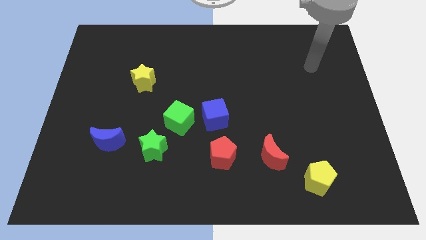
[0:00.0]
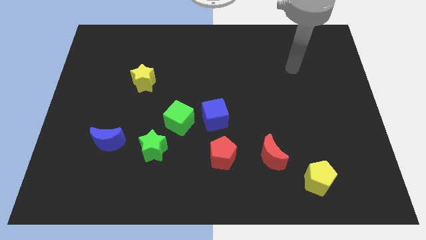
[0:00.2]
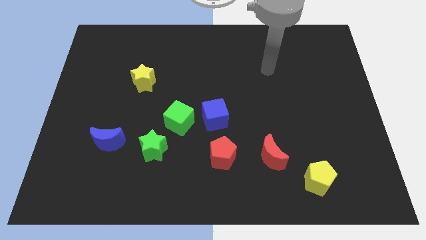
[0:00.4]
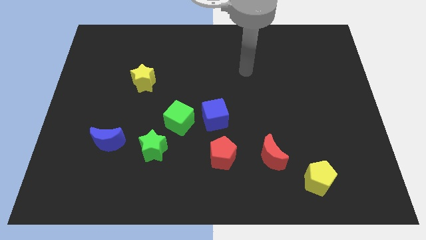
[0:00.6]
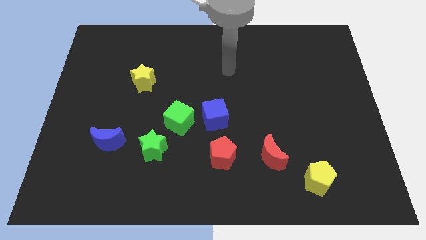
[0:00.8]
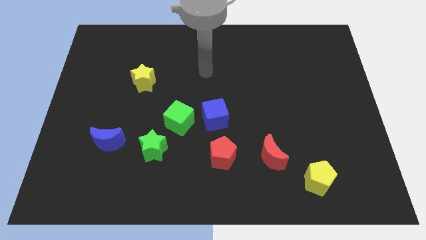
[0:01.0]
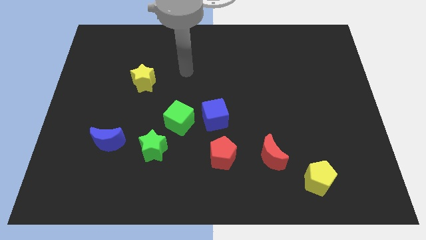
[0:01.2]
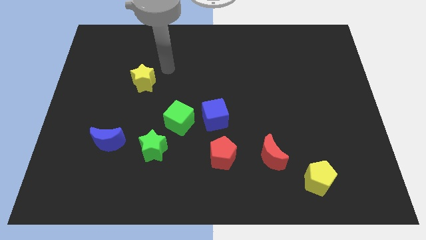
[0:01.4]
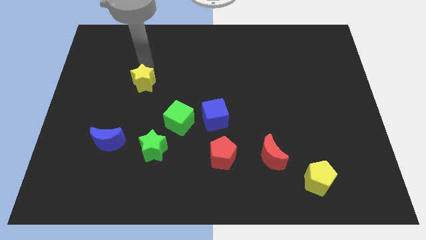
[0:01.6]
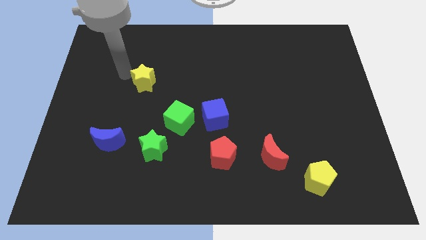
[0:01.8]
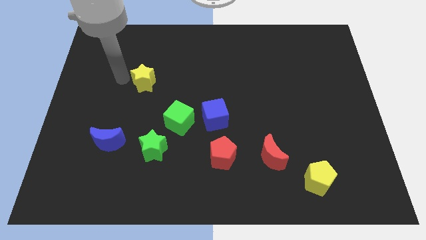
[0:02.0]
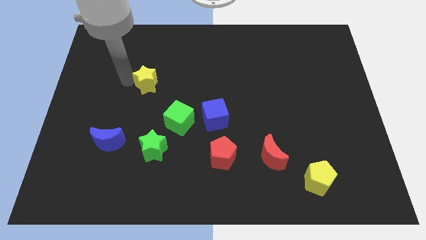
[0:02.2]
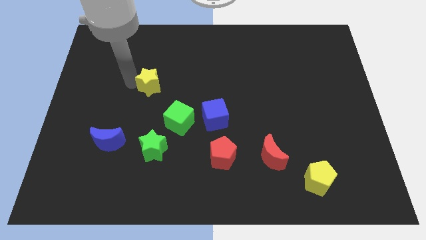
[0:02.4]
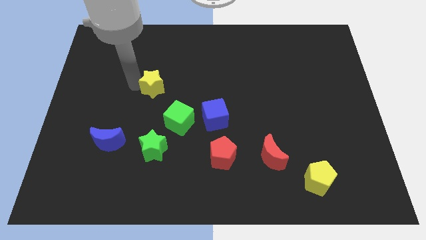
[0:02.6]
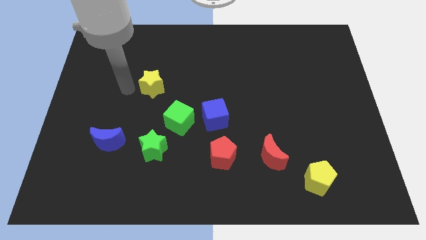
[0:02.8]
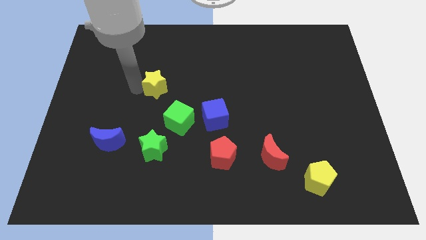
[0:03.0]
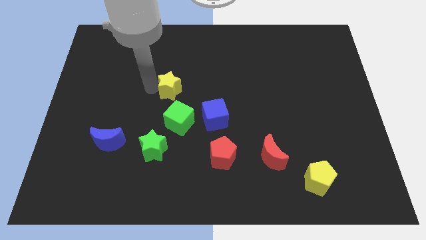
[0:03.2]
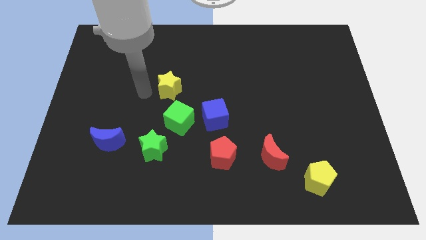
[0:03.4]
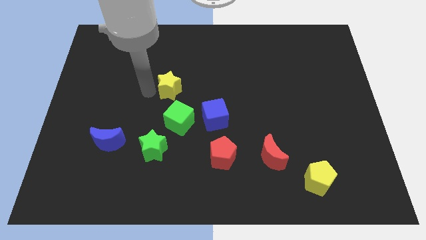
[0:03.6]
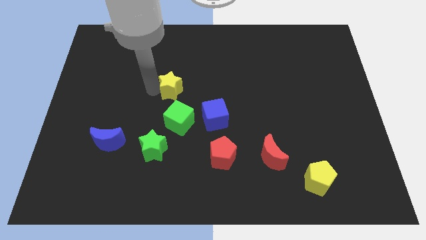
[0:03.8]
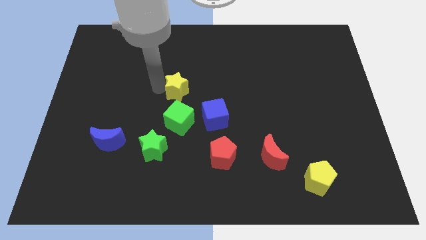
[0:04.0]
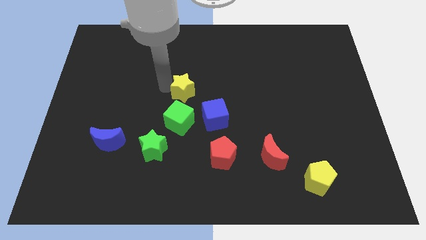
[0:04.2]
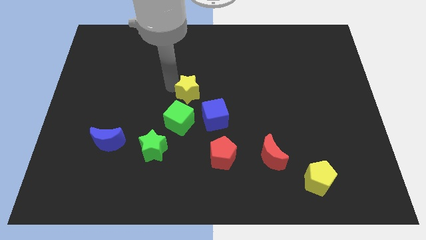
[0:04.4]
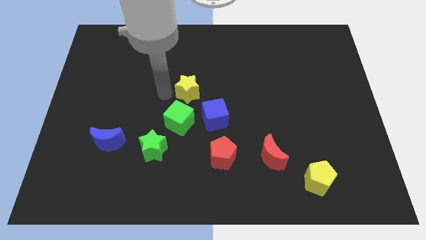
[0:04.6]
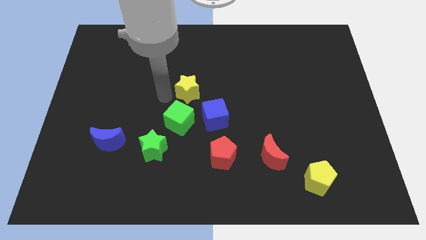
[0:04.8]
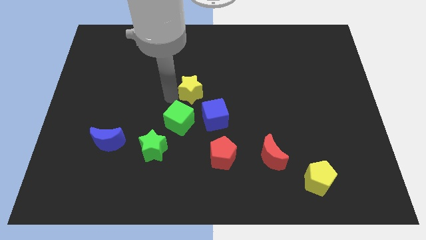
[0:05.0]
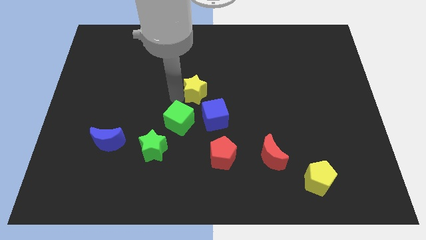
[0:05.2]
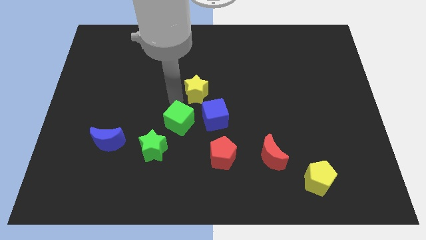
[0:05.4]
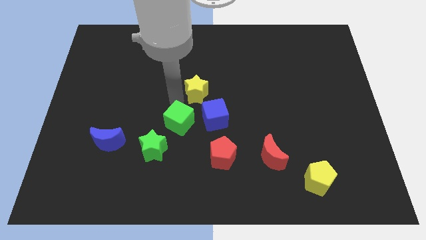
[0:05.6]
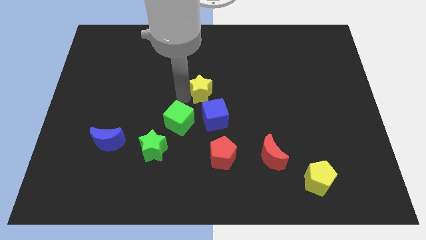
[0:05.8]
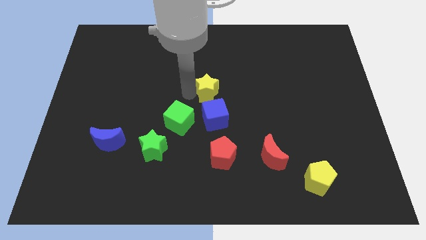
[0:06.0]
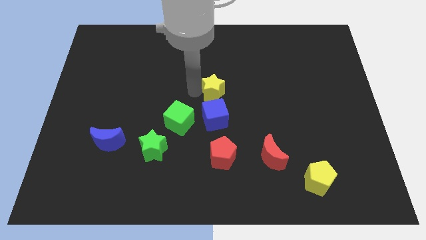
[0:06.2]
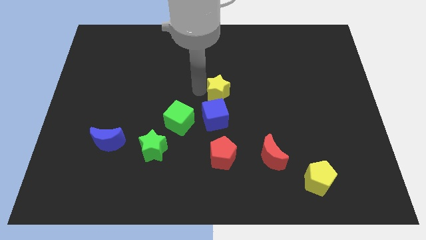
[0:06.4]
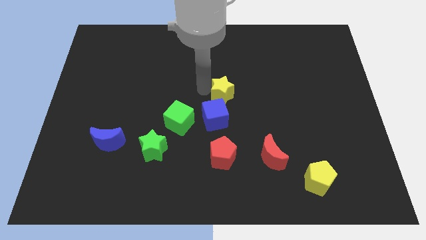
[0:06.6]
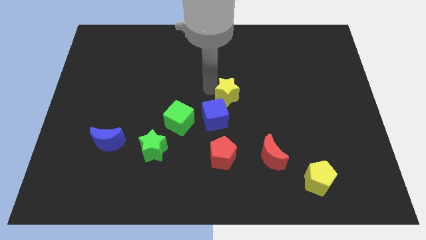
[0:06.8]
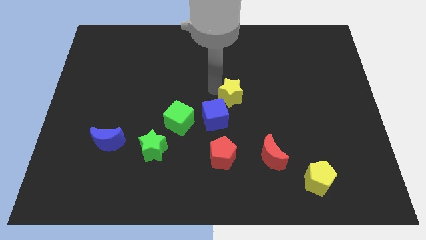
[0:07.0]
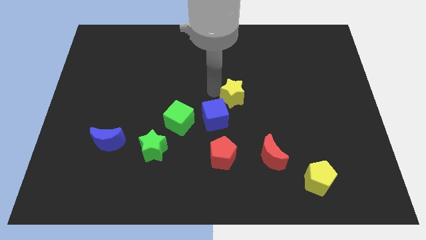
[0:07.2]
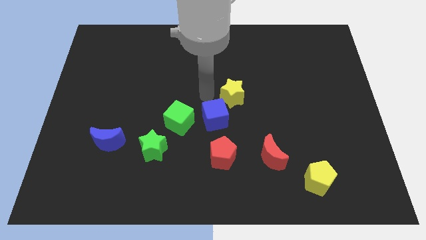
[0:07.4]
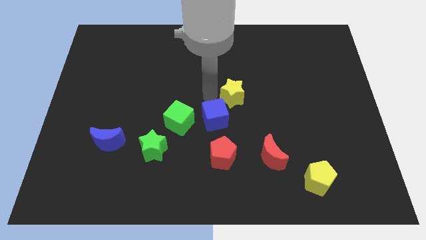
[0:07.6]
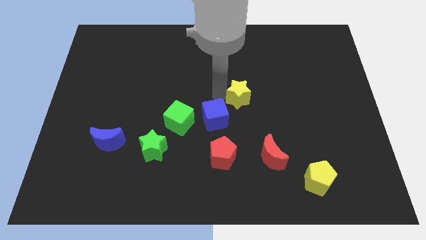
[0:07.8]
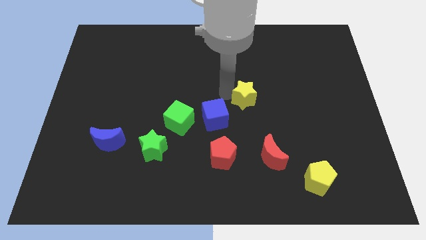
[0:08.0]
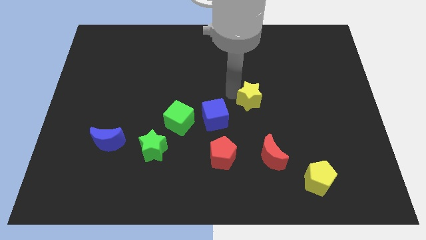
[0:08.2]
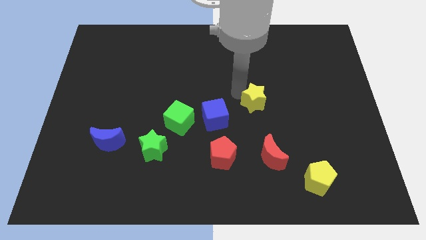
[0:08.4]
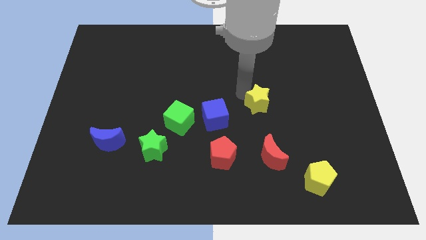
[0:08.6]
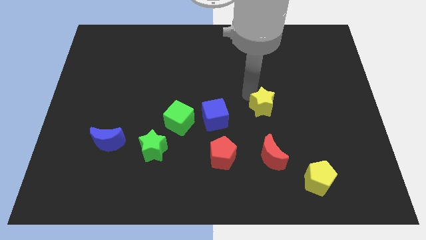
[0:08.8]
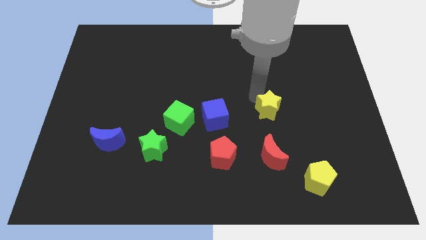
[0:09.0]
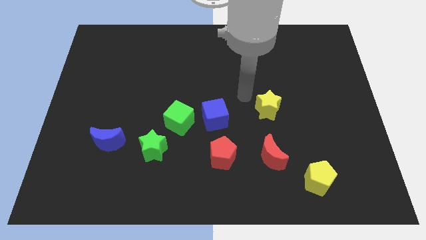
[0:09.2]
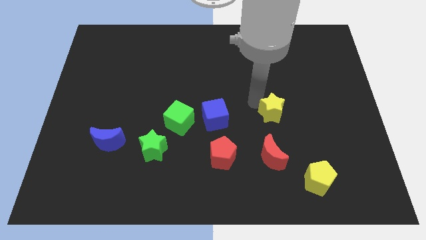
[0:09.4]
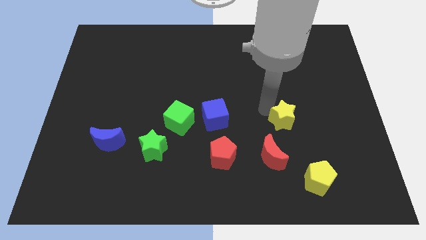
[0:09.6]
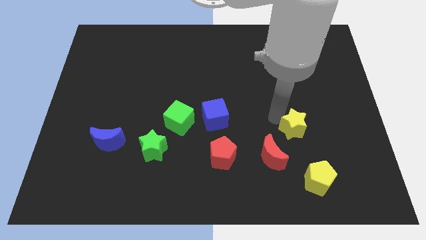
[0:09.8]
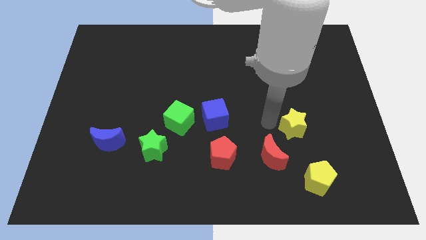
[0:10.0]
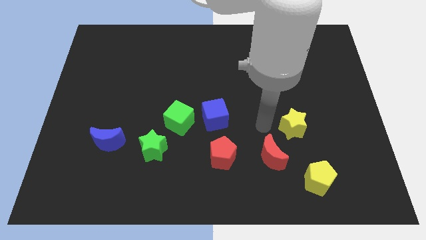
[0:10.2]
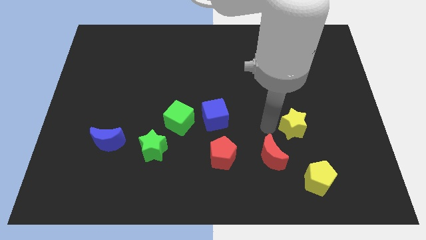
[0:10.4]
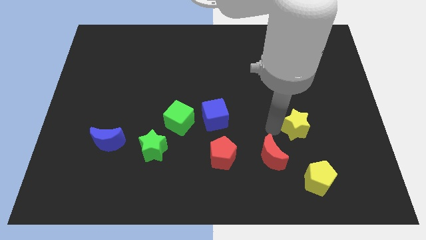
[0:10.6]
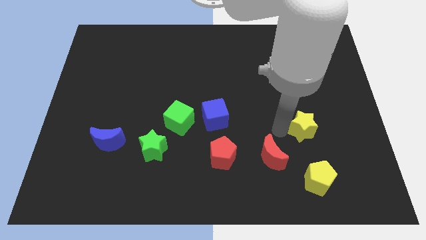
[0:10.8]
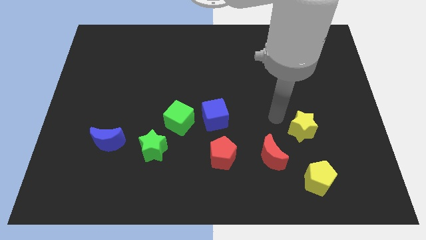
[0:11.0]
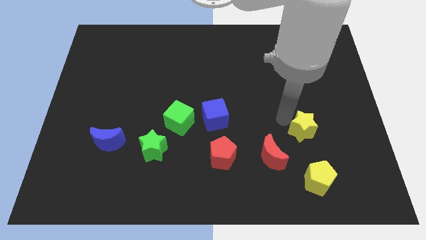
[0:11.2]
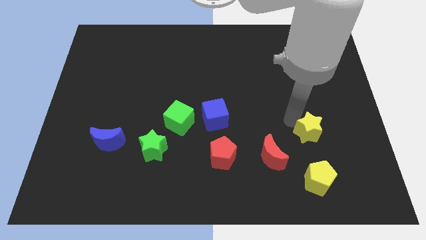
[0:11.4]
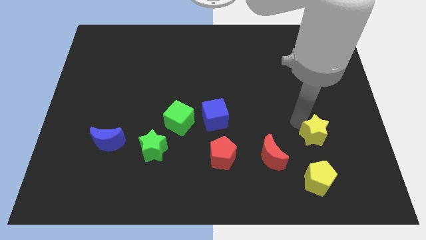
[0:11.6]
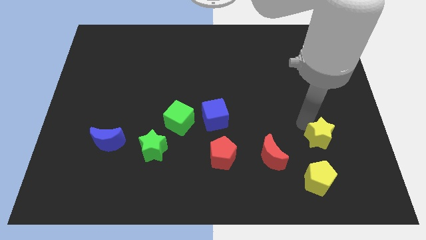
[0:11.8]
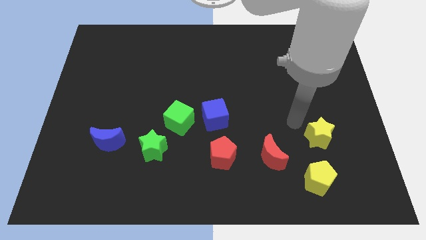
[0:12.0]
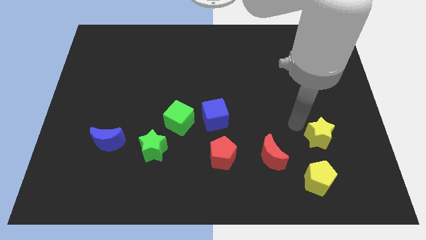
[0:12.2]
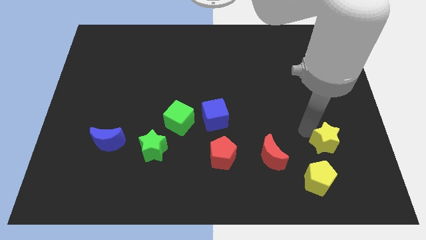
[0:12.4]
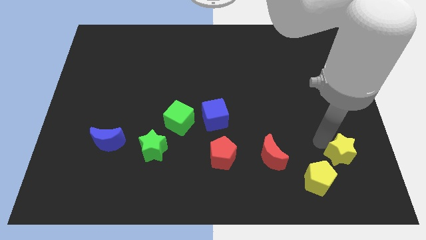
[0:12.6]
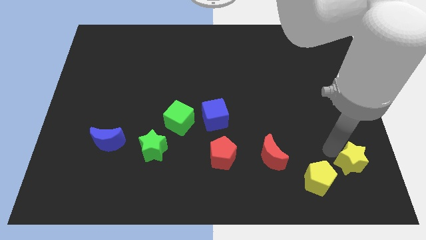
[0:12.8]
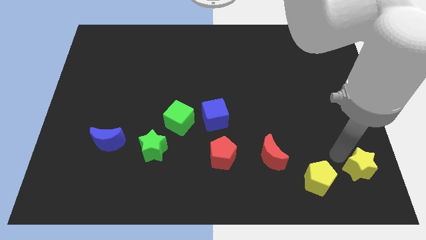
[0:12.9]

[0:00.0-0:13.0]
slide the yellow star to the bottom right corner

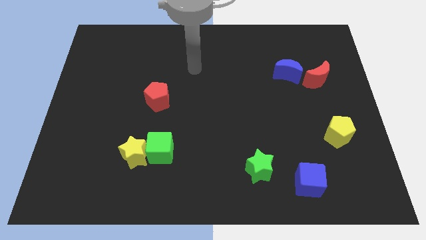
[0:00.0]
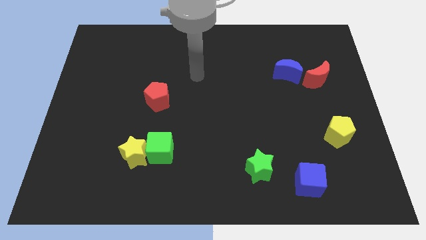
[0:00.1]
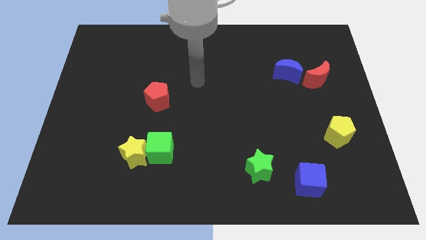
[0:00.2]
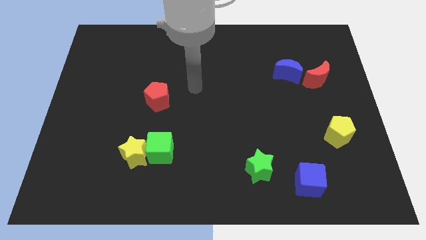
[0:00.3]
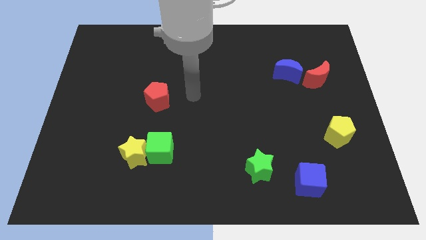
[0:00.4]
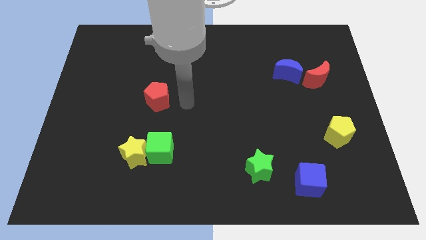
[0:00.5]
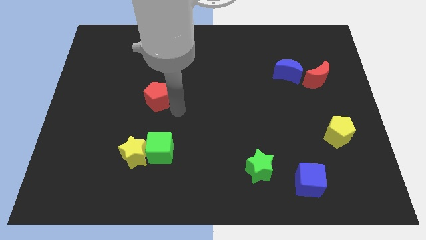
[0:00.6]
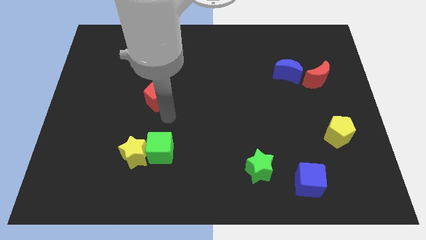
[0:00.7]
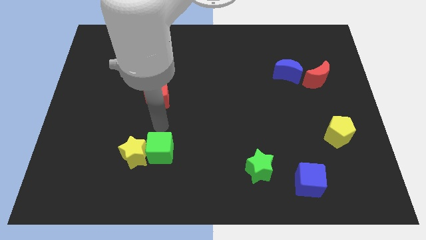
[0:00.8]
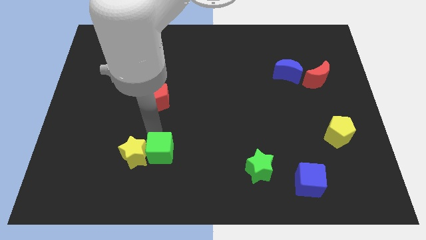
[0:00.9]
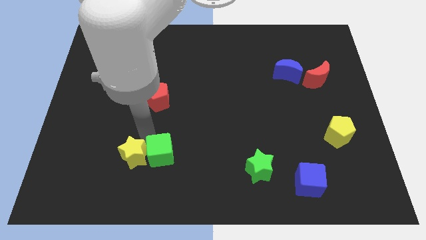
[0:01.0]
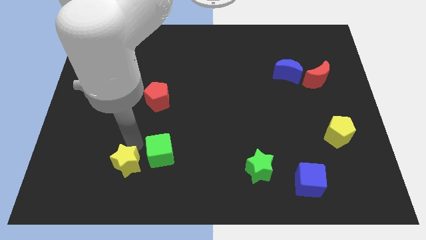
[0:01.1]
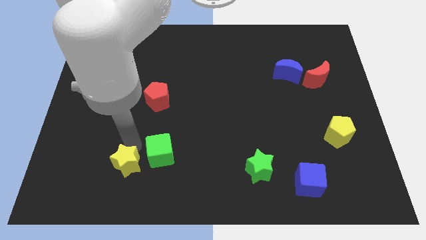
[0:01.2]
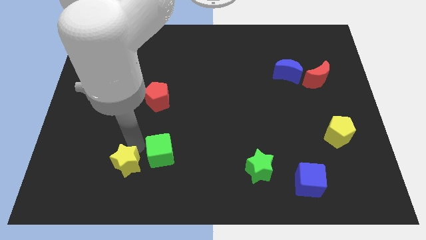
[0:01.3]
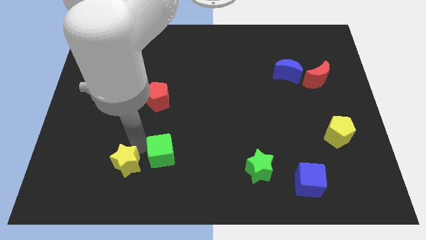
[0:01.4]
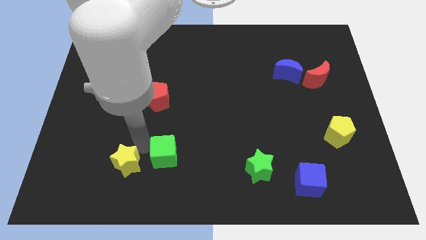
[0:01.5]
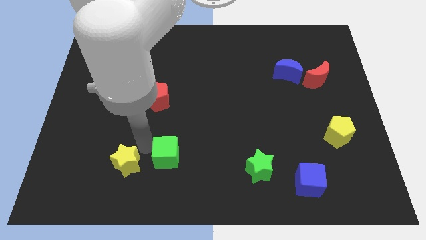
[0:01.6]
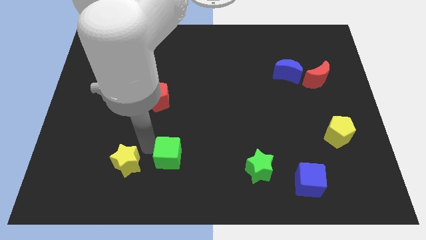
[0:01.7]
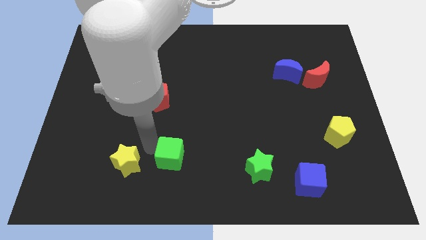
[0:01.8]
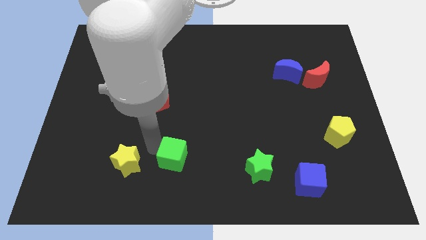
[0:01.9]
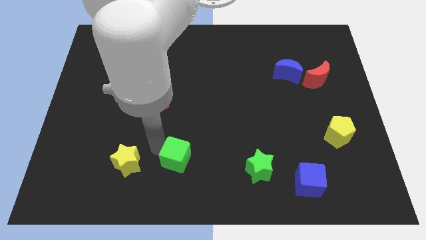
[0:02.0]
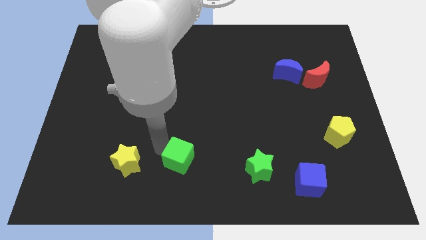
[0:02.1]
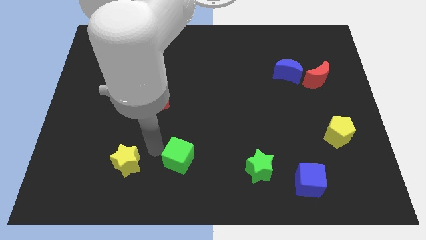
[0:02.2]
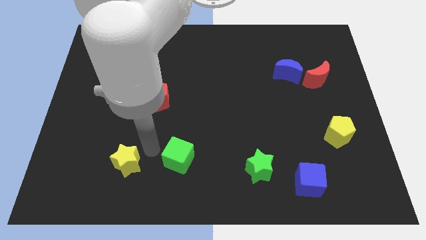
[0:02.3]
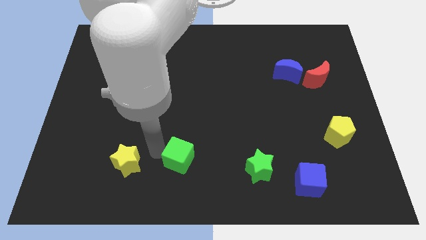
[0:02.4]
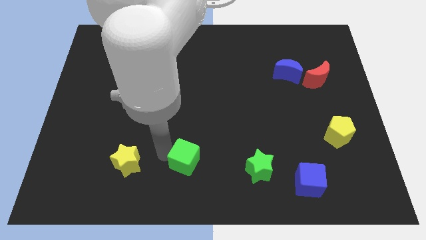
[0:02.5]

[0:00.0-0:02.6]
put the green cube to the bottom
